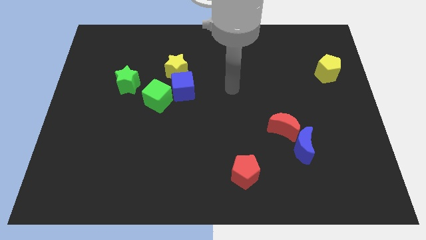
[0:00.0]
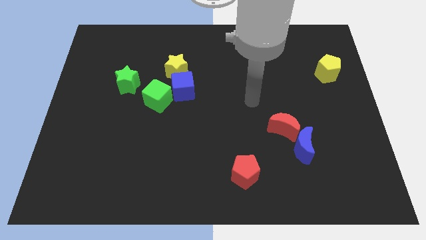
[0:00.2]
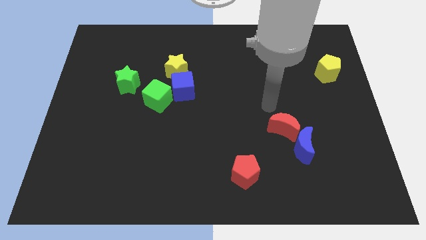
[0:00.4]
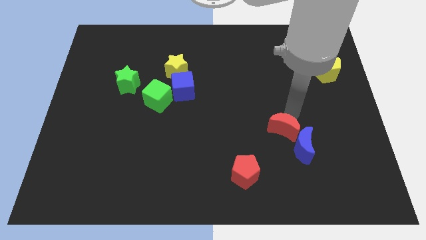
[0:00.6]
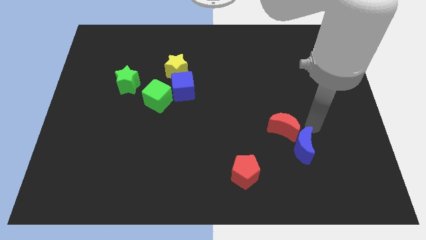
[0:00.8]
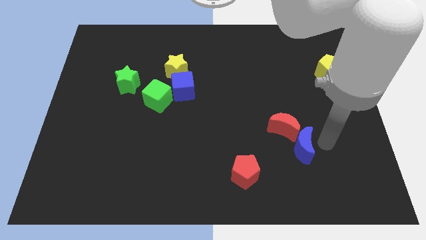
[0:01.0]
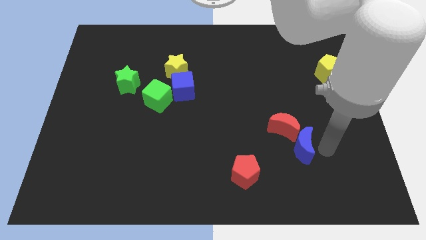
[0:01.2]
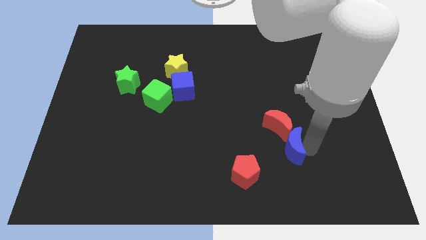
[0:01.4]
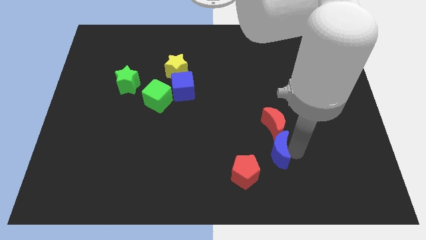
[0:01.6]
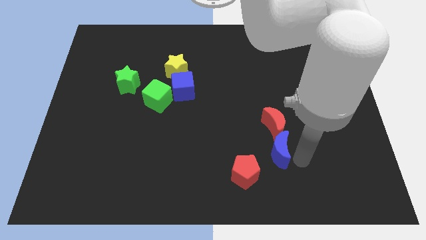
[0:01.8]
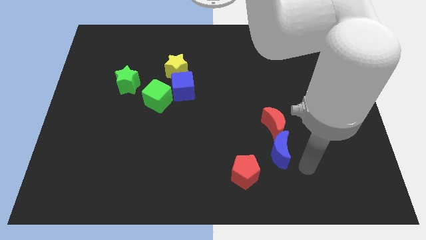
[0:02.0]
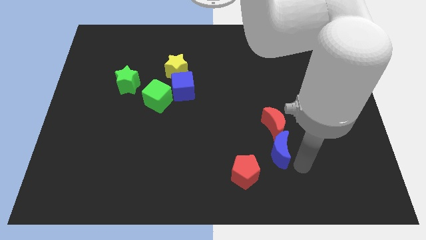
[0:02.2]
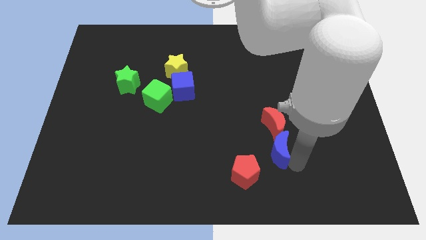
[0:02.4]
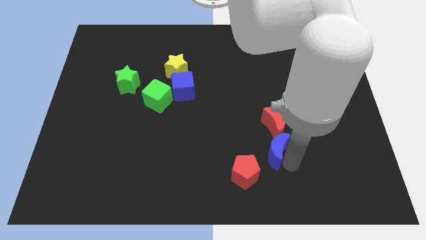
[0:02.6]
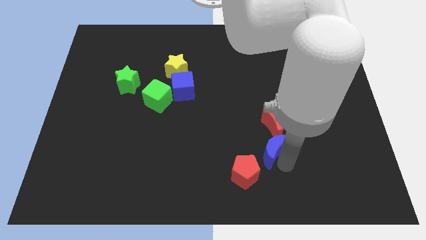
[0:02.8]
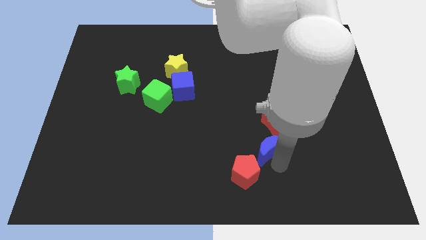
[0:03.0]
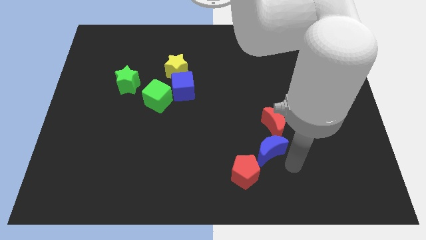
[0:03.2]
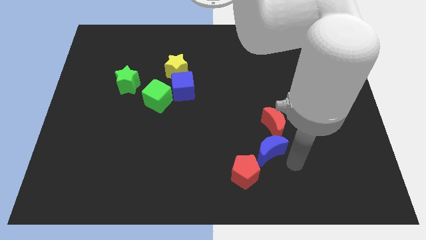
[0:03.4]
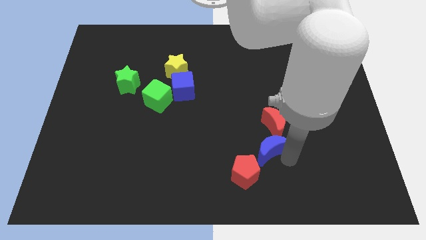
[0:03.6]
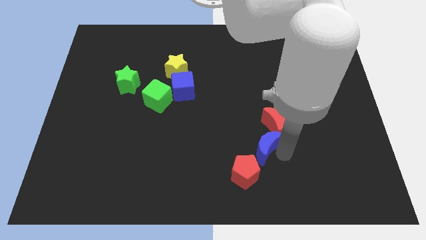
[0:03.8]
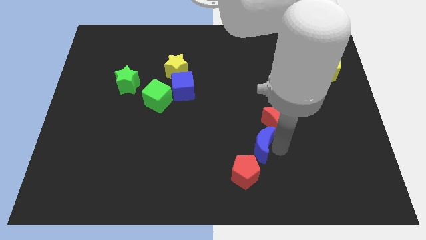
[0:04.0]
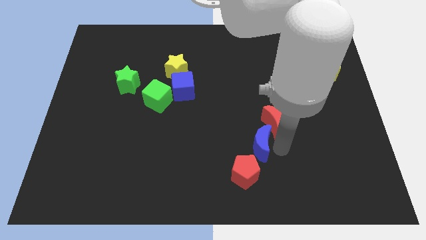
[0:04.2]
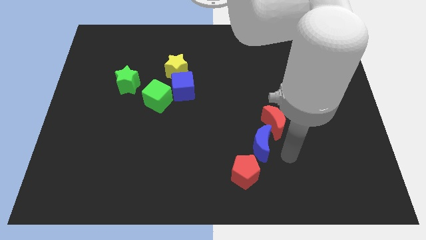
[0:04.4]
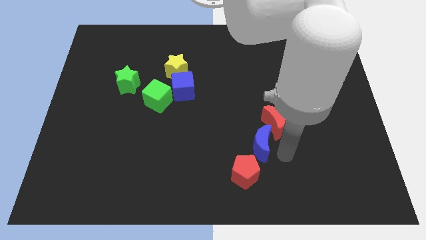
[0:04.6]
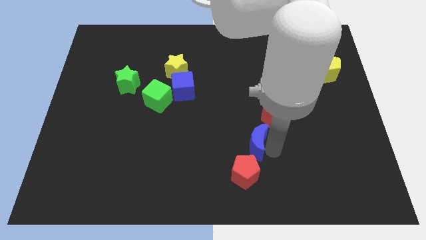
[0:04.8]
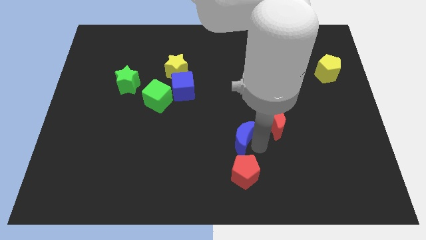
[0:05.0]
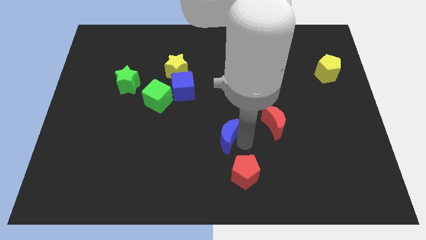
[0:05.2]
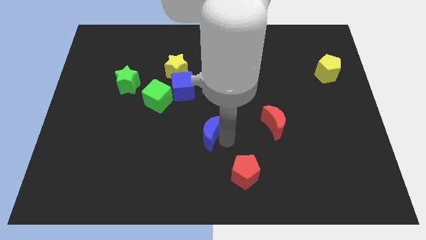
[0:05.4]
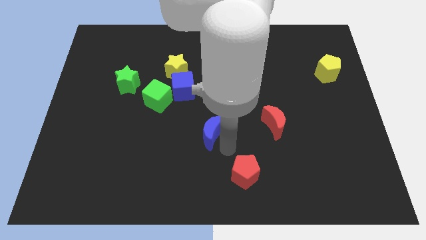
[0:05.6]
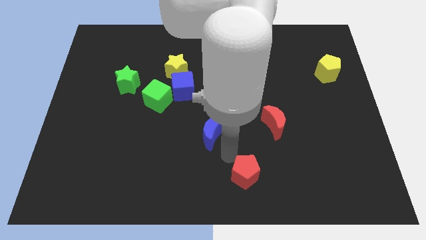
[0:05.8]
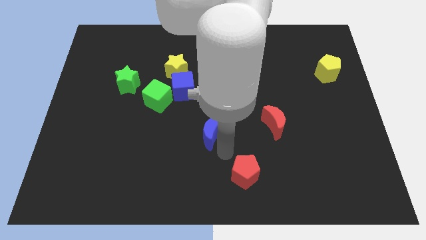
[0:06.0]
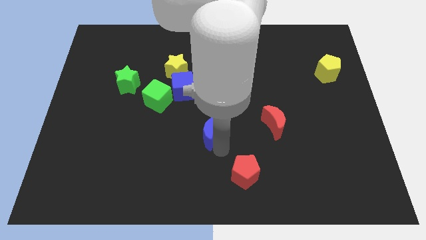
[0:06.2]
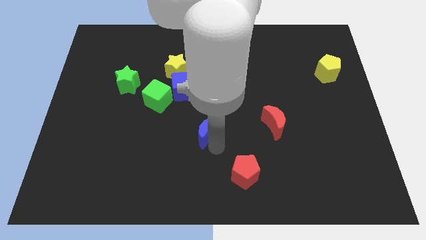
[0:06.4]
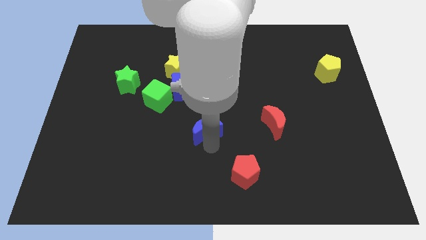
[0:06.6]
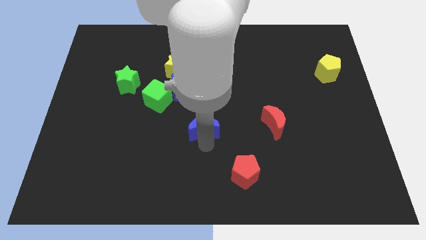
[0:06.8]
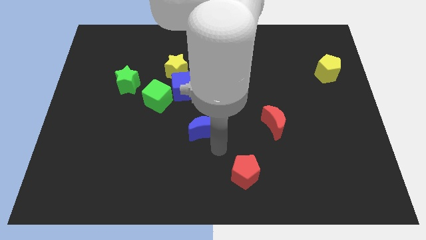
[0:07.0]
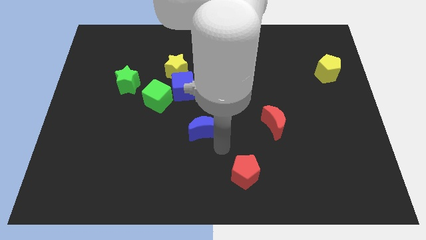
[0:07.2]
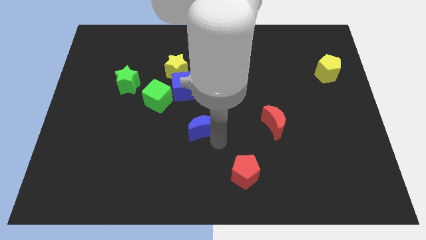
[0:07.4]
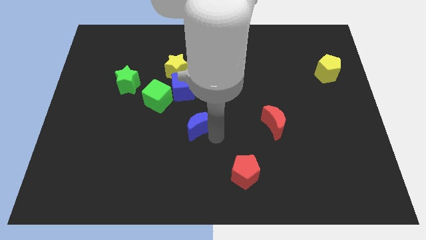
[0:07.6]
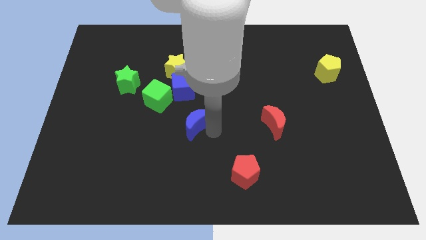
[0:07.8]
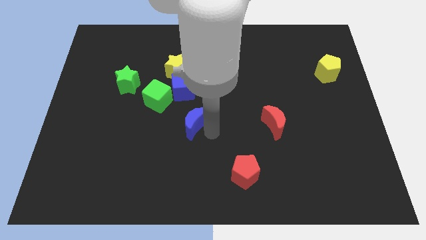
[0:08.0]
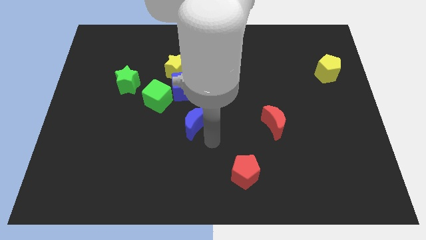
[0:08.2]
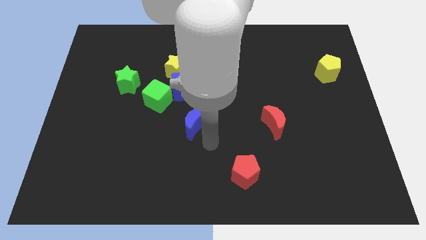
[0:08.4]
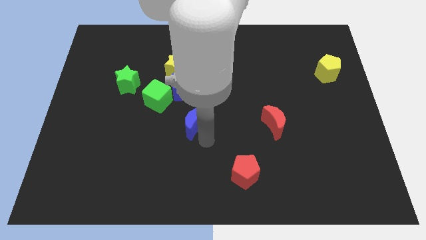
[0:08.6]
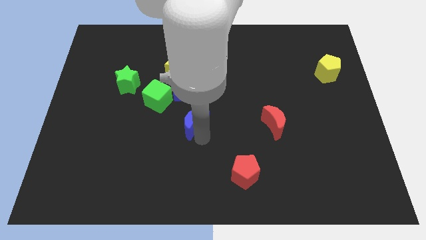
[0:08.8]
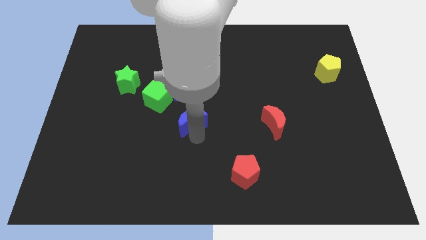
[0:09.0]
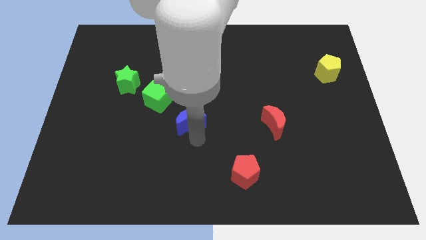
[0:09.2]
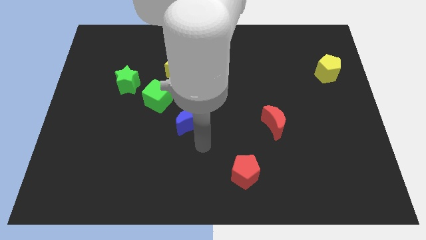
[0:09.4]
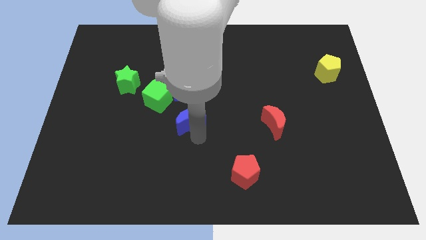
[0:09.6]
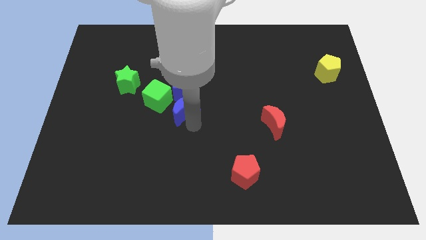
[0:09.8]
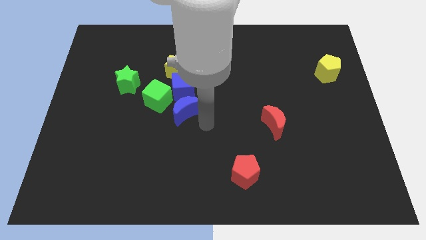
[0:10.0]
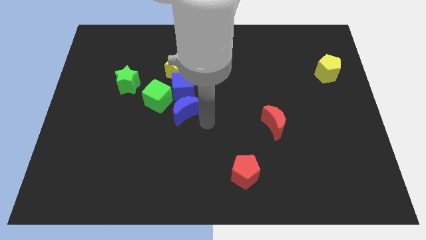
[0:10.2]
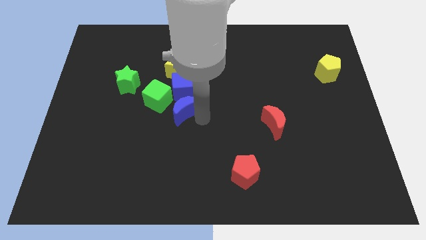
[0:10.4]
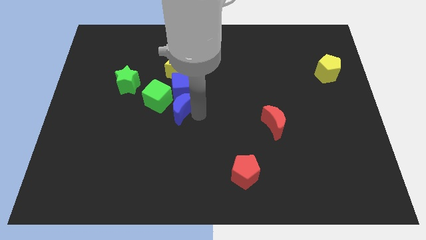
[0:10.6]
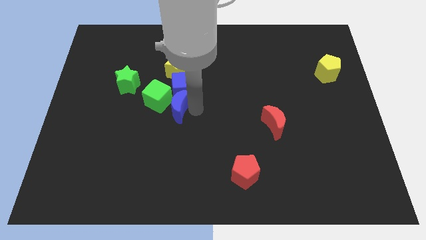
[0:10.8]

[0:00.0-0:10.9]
slide the blue moon towards the green cube

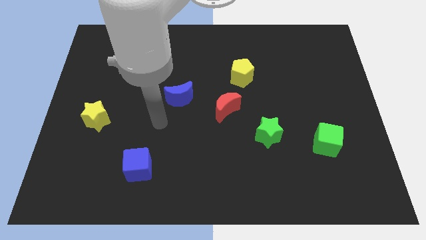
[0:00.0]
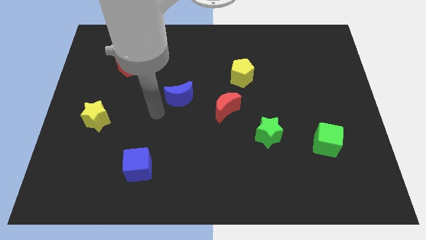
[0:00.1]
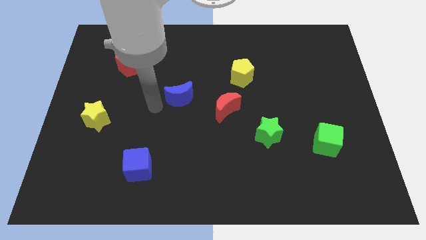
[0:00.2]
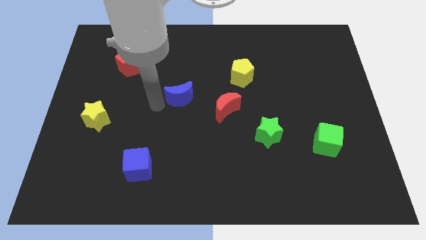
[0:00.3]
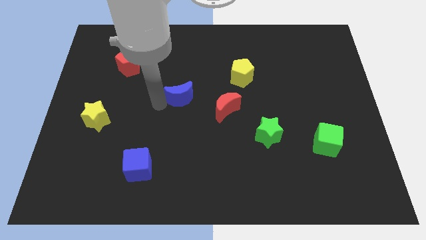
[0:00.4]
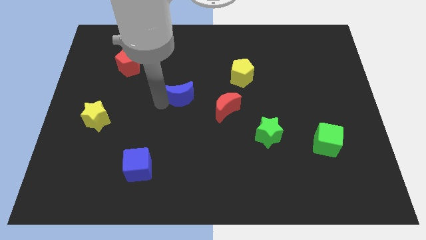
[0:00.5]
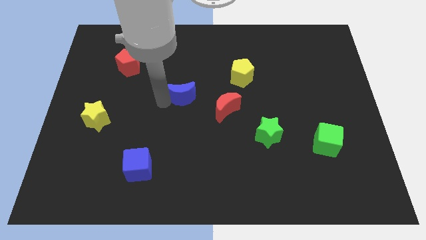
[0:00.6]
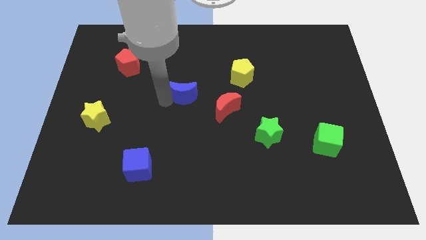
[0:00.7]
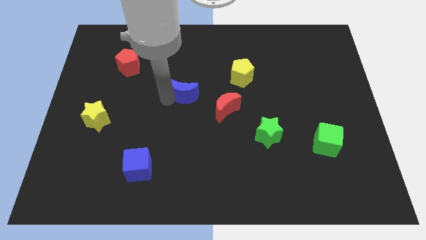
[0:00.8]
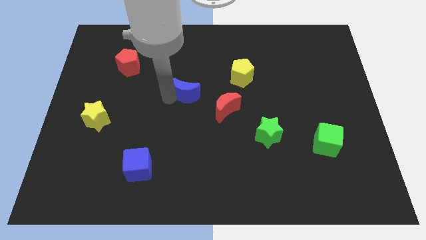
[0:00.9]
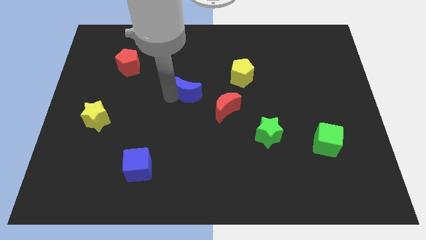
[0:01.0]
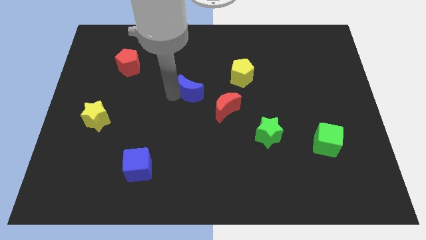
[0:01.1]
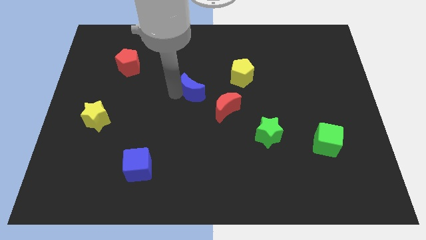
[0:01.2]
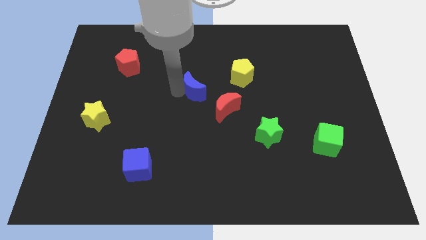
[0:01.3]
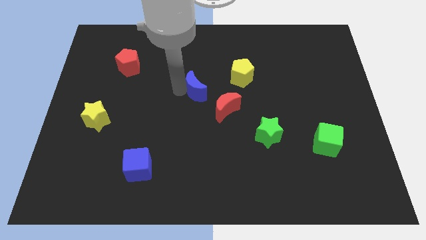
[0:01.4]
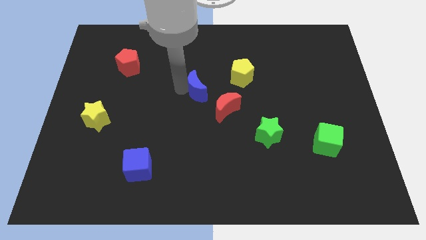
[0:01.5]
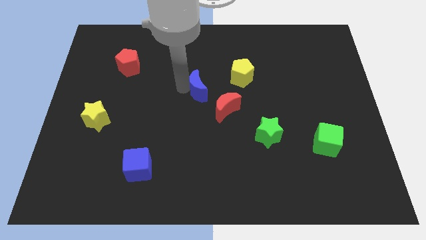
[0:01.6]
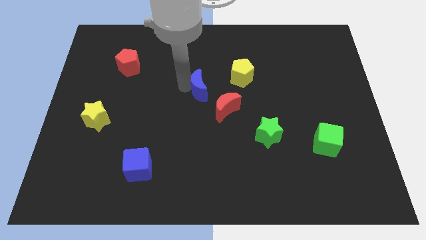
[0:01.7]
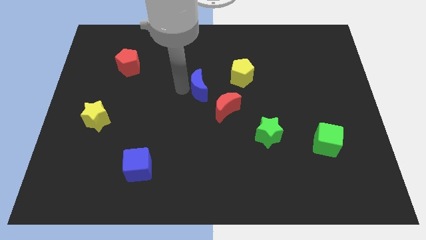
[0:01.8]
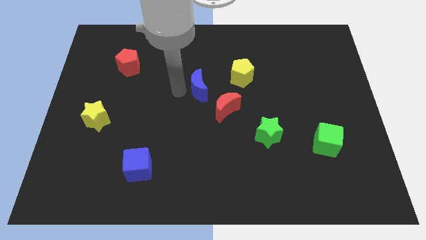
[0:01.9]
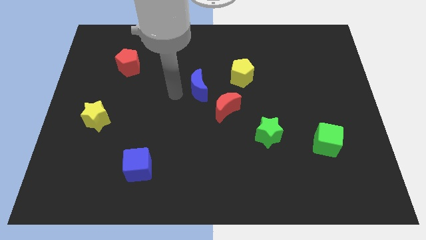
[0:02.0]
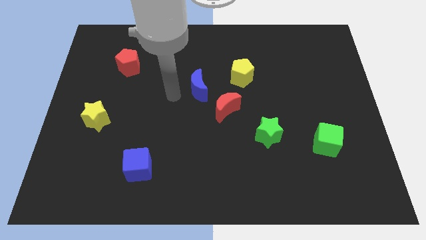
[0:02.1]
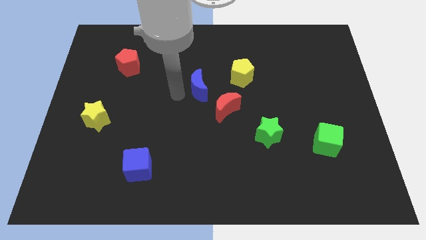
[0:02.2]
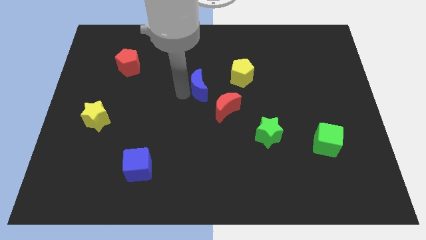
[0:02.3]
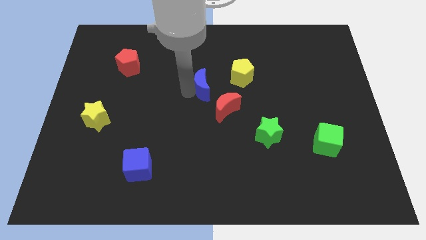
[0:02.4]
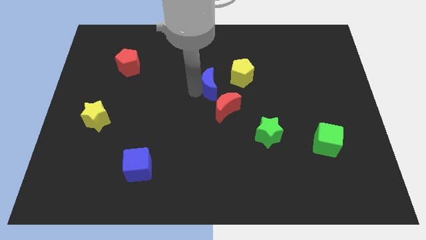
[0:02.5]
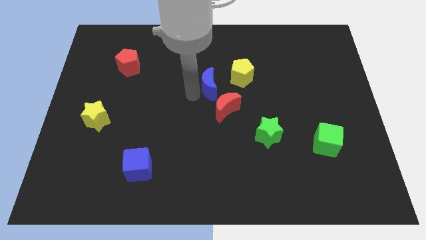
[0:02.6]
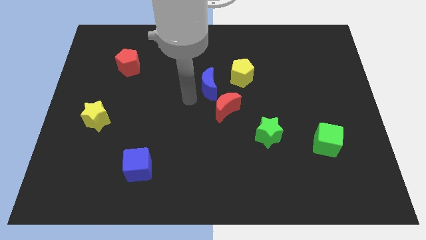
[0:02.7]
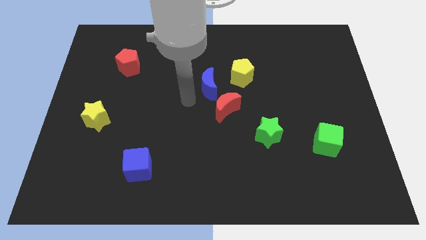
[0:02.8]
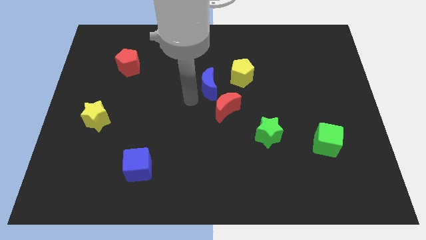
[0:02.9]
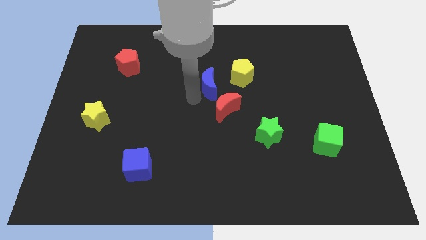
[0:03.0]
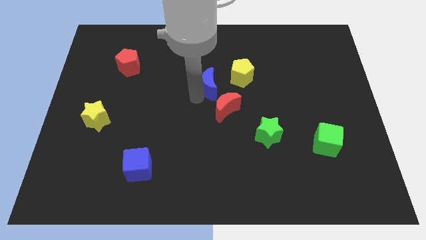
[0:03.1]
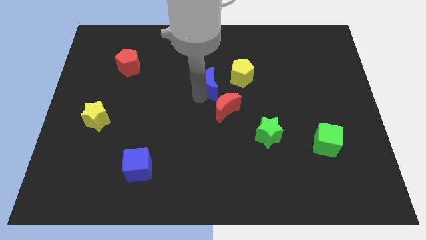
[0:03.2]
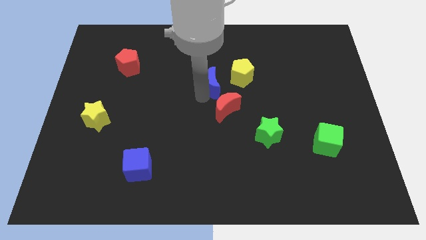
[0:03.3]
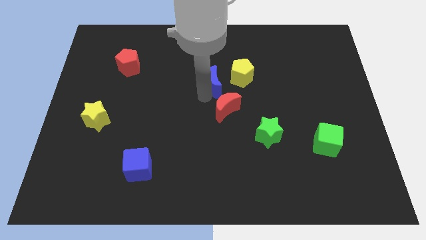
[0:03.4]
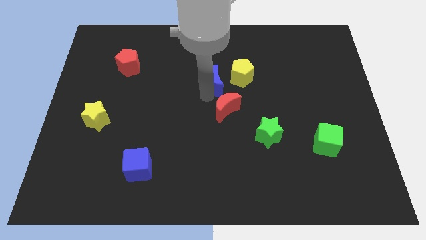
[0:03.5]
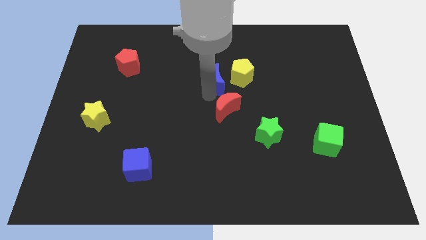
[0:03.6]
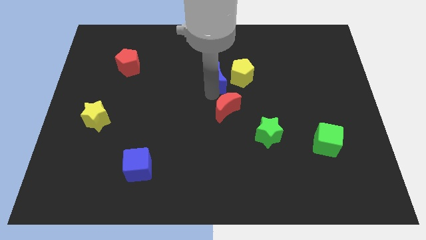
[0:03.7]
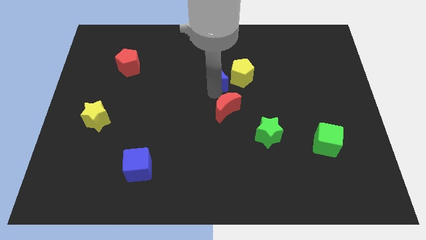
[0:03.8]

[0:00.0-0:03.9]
push the blue moon close to the yellow pentagon
